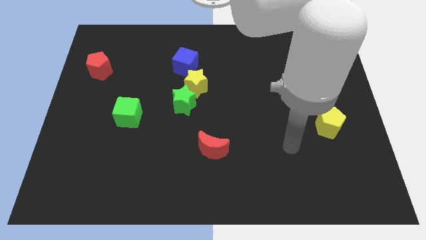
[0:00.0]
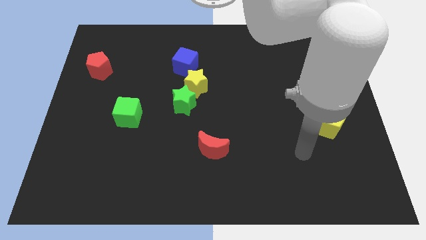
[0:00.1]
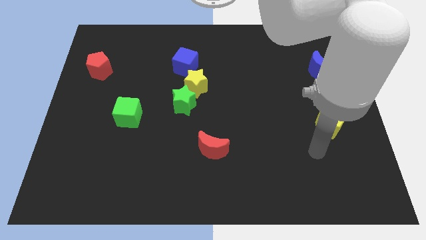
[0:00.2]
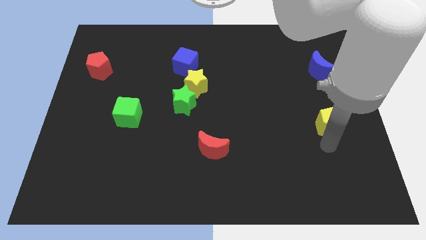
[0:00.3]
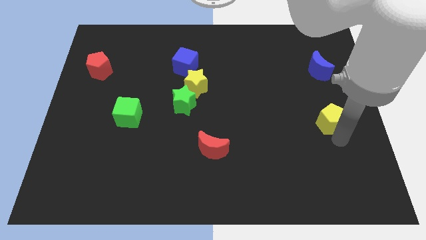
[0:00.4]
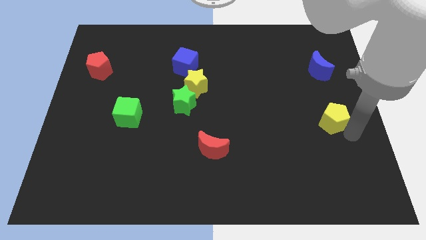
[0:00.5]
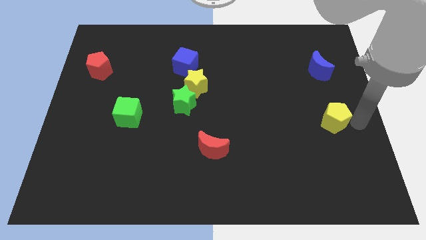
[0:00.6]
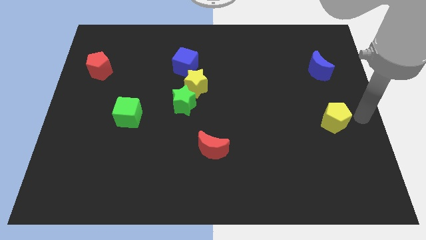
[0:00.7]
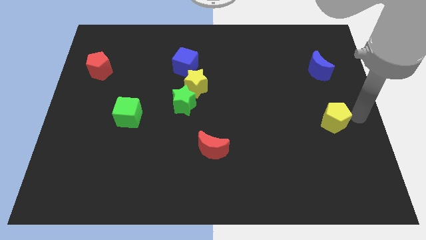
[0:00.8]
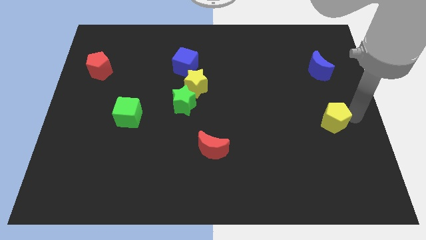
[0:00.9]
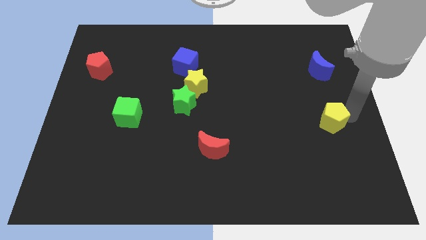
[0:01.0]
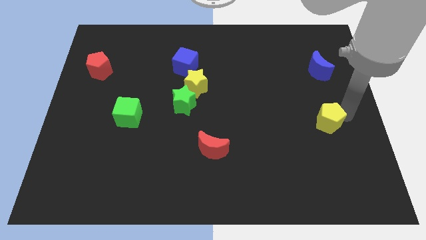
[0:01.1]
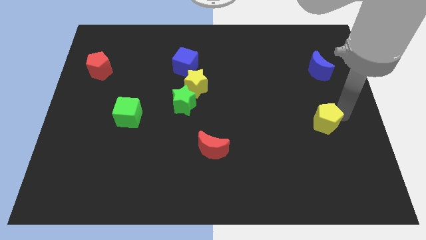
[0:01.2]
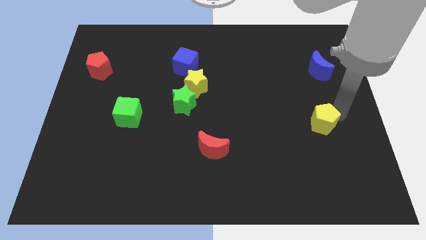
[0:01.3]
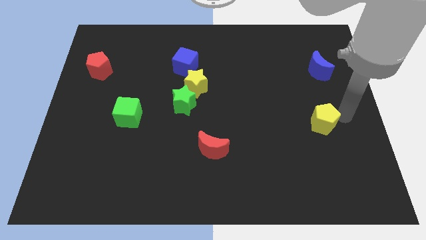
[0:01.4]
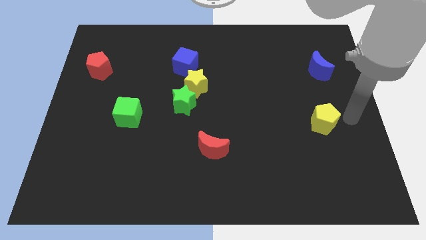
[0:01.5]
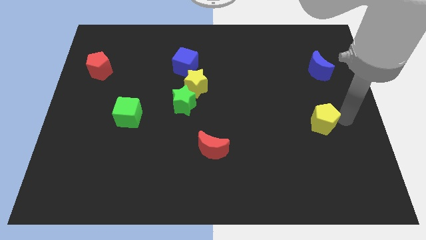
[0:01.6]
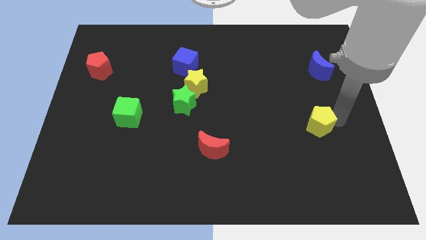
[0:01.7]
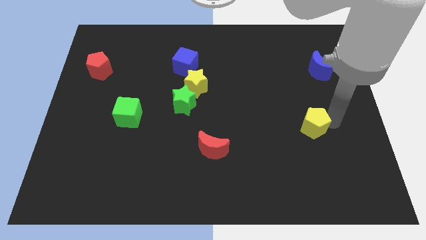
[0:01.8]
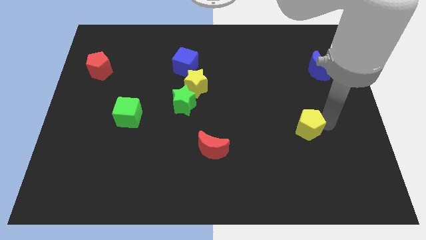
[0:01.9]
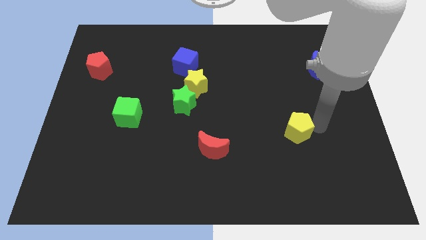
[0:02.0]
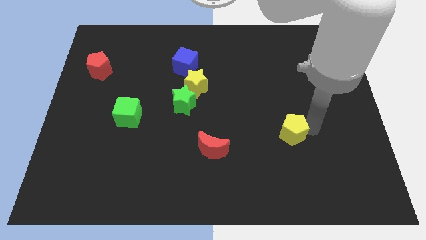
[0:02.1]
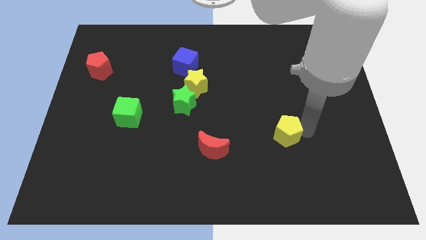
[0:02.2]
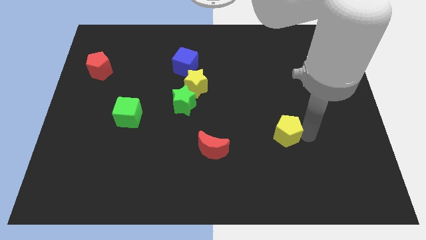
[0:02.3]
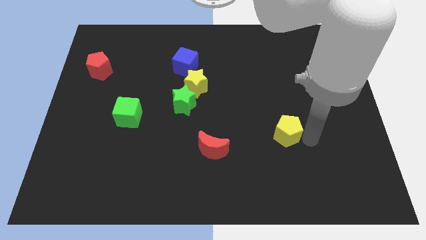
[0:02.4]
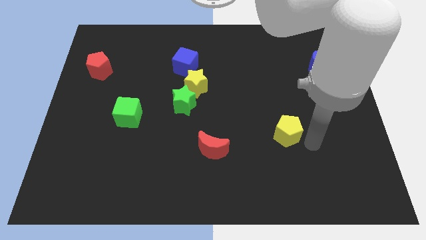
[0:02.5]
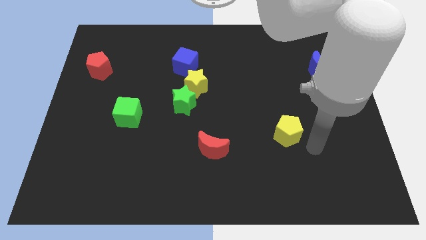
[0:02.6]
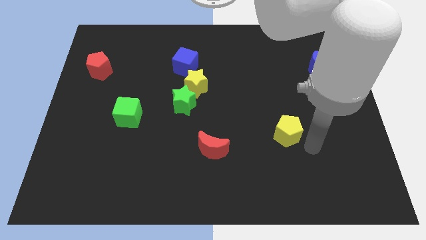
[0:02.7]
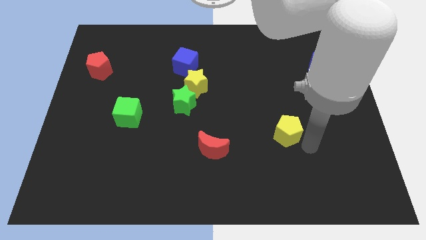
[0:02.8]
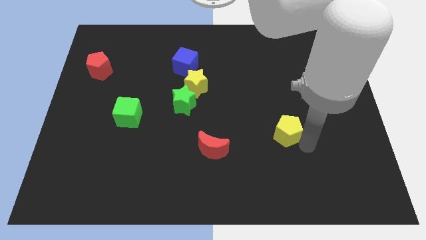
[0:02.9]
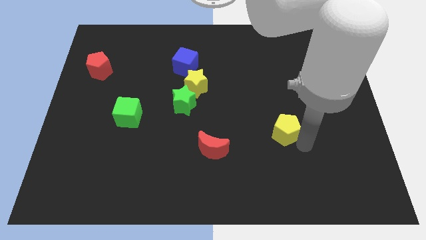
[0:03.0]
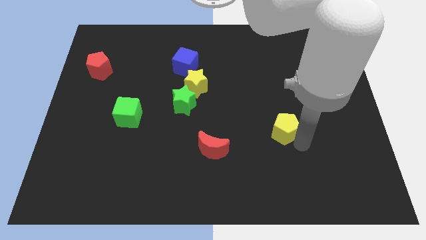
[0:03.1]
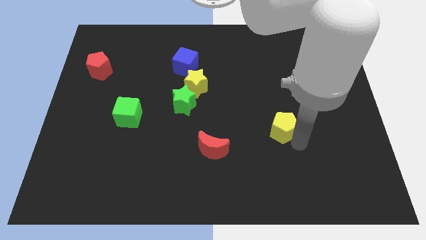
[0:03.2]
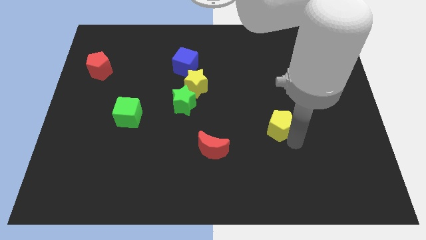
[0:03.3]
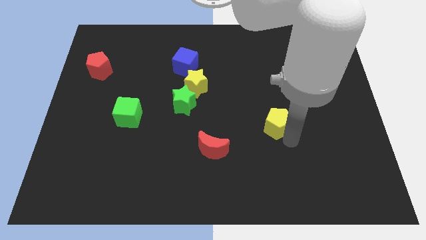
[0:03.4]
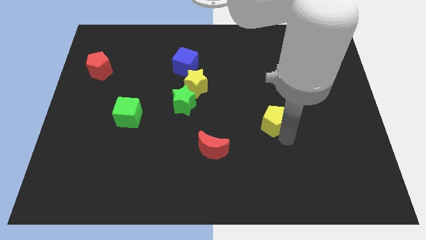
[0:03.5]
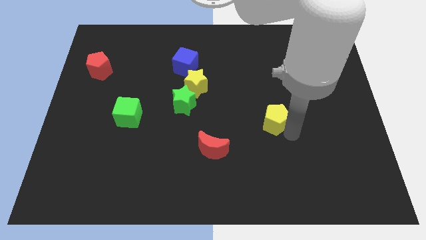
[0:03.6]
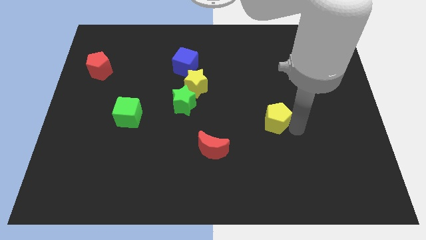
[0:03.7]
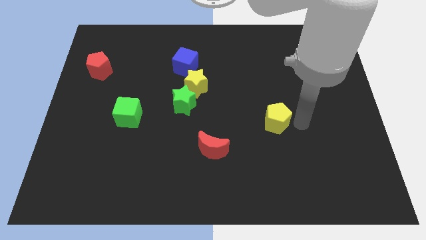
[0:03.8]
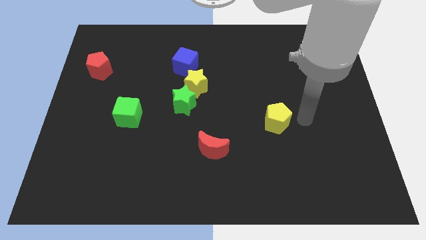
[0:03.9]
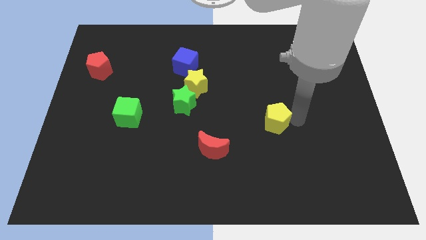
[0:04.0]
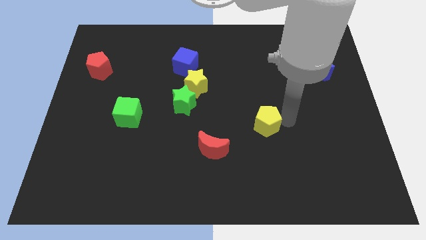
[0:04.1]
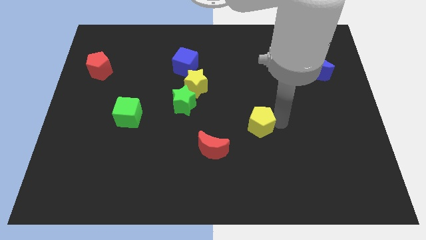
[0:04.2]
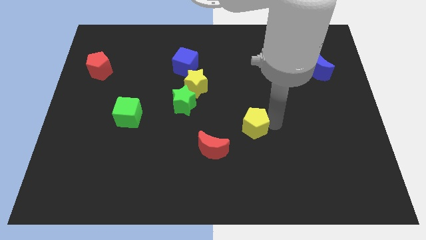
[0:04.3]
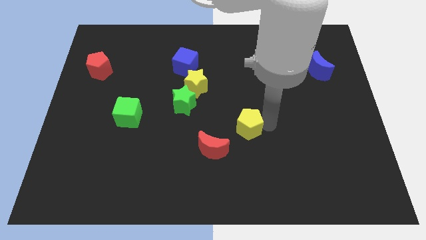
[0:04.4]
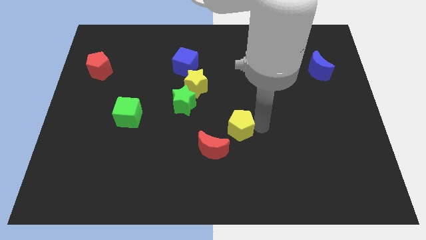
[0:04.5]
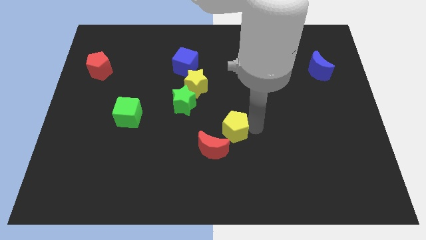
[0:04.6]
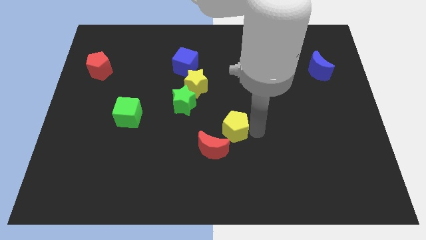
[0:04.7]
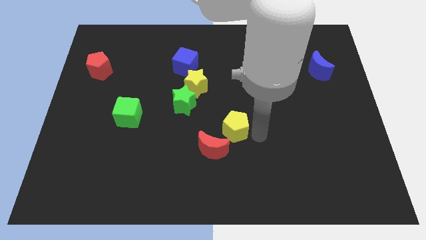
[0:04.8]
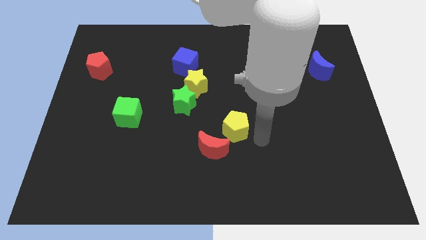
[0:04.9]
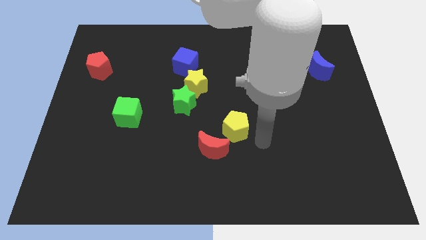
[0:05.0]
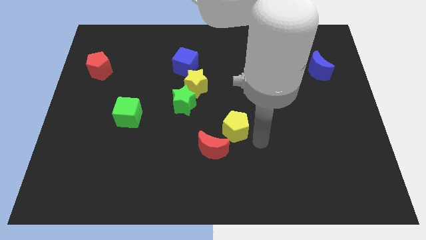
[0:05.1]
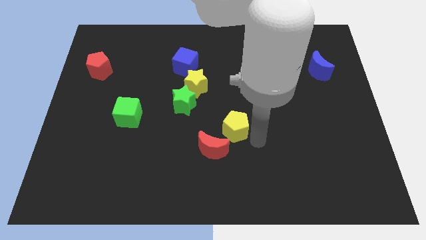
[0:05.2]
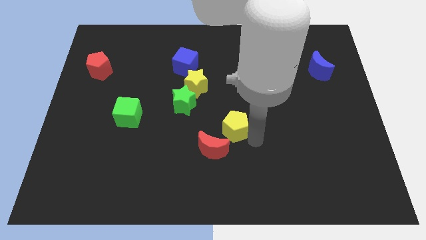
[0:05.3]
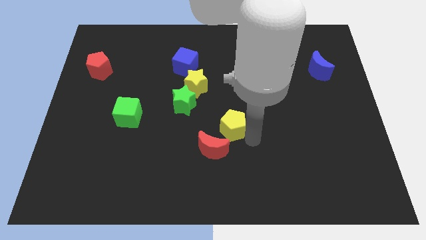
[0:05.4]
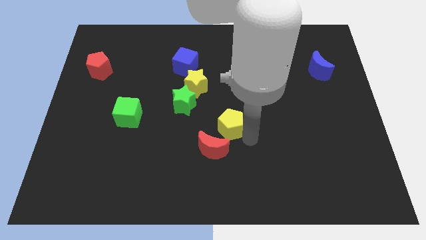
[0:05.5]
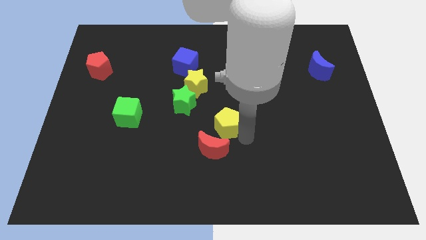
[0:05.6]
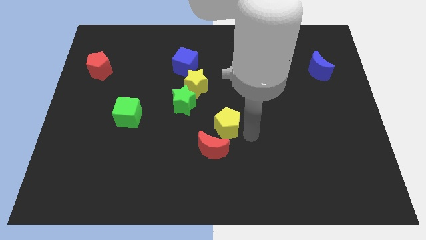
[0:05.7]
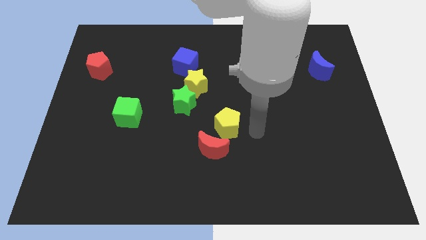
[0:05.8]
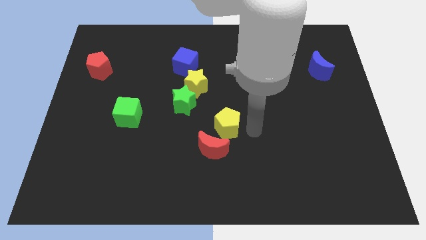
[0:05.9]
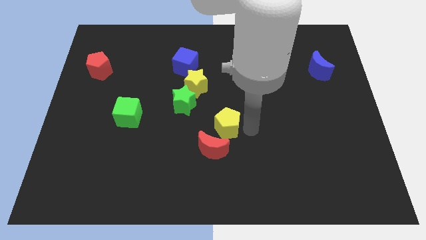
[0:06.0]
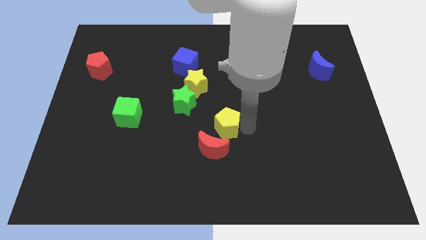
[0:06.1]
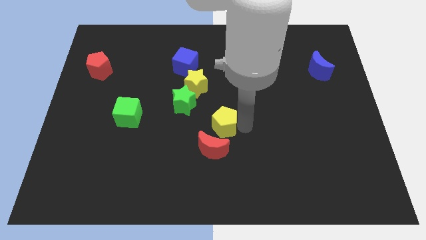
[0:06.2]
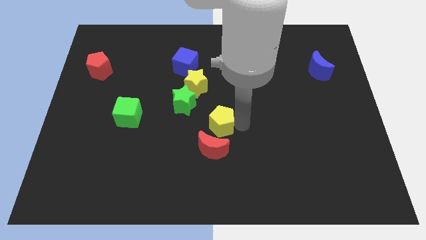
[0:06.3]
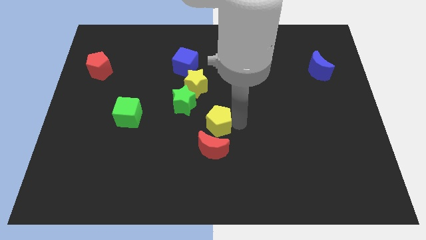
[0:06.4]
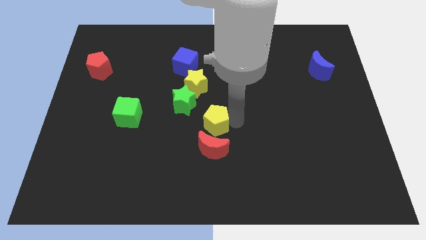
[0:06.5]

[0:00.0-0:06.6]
move the yellow pentagon below the yellow star
